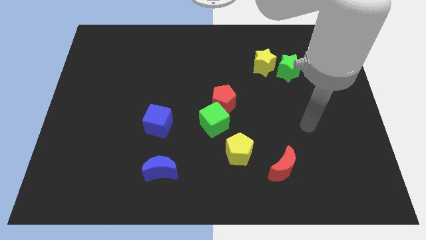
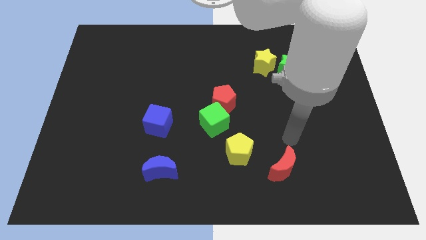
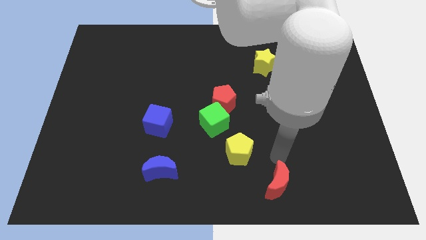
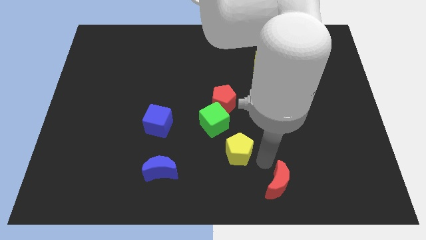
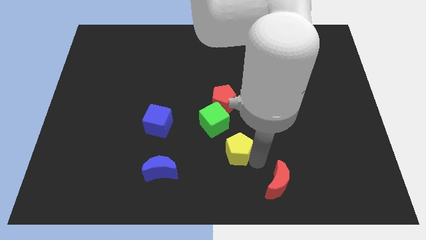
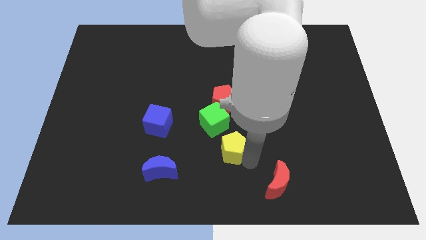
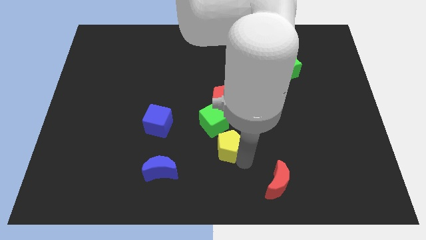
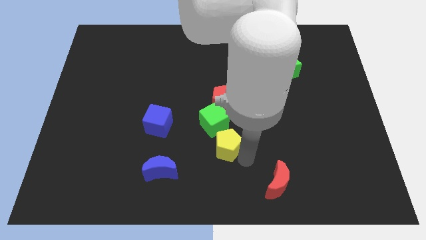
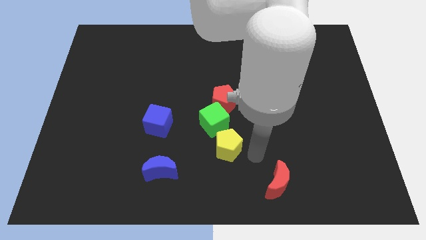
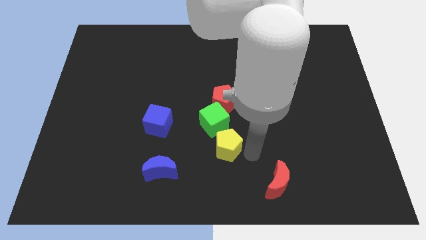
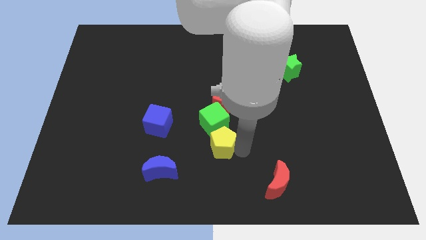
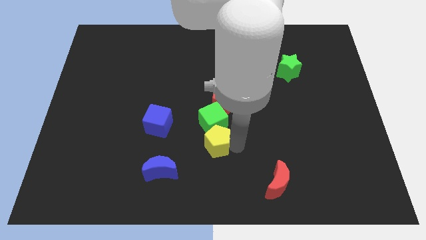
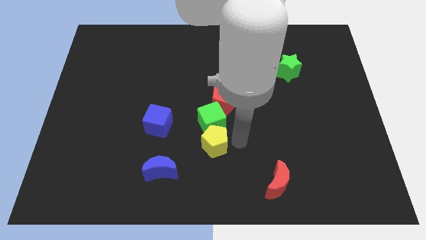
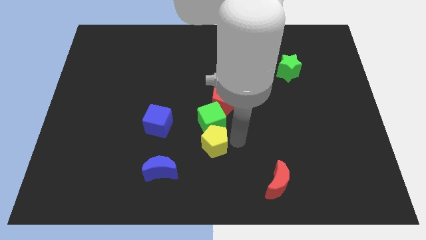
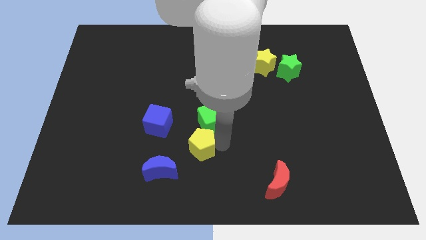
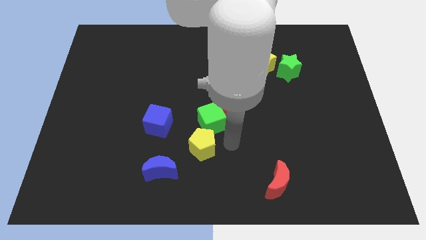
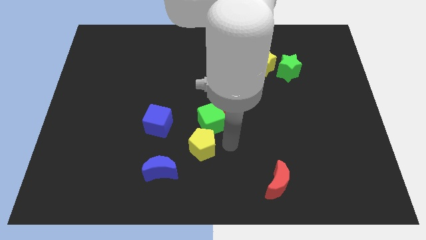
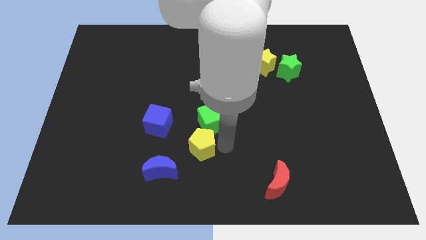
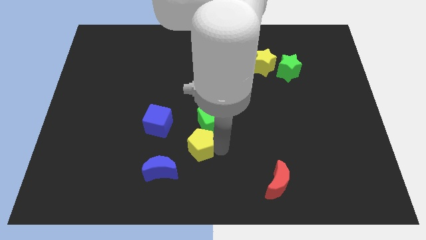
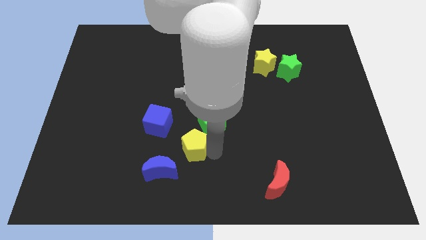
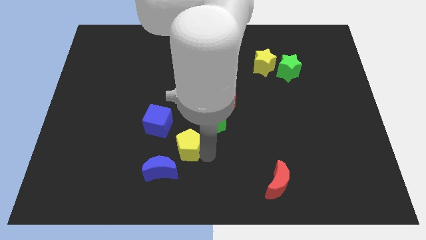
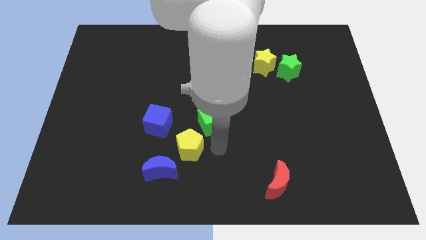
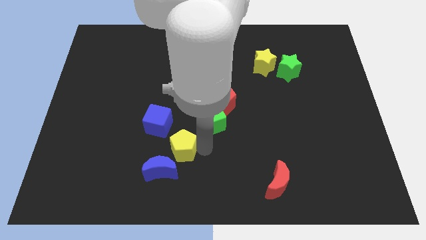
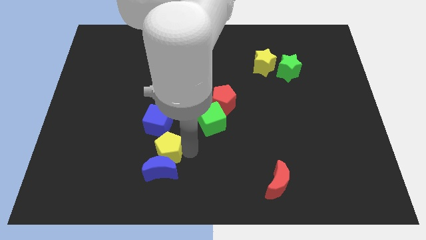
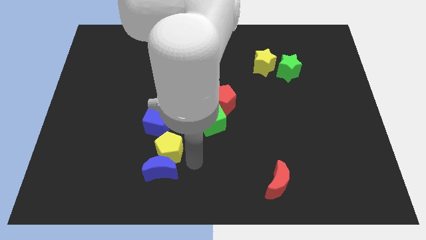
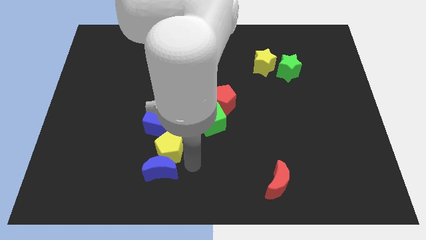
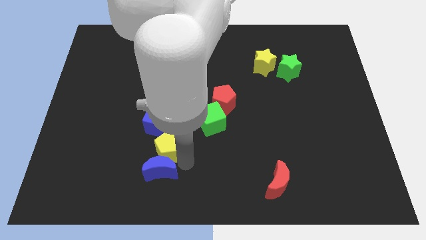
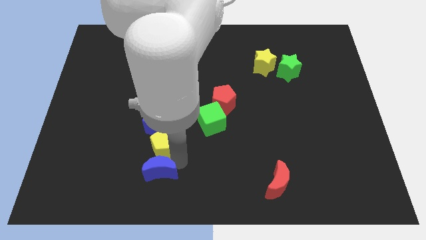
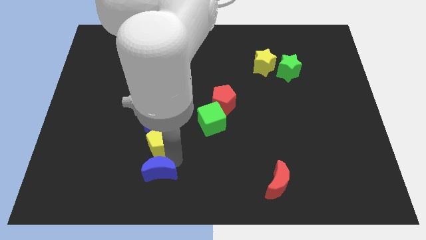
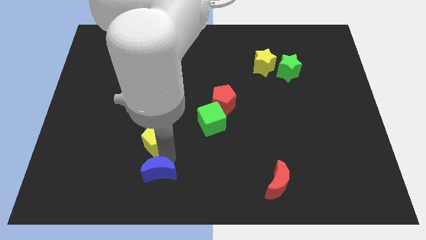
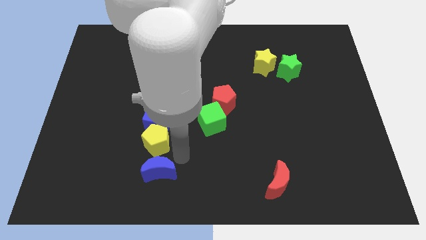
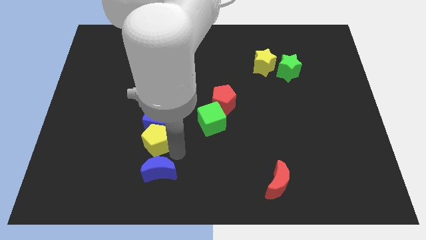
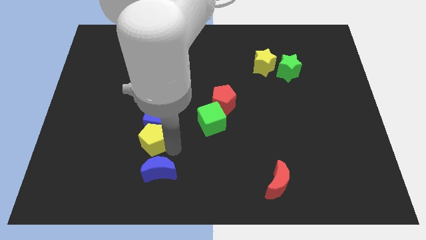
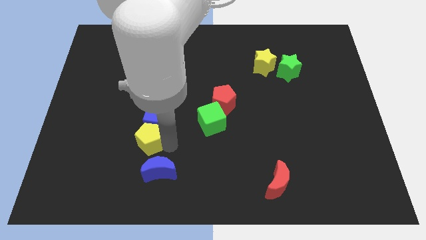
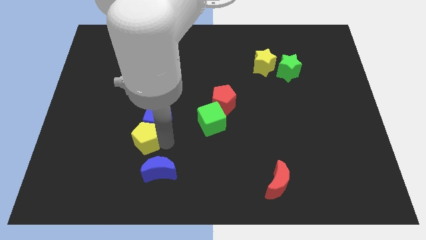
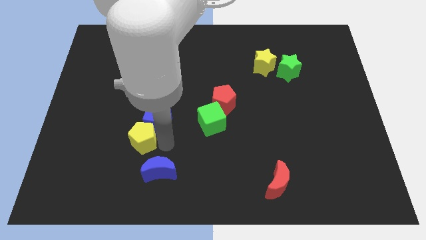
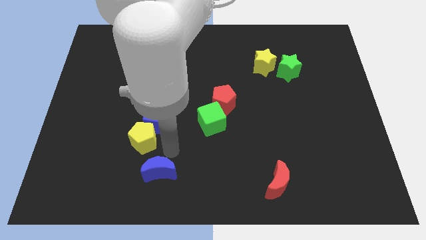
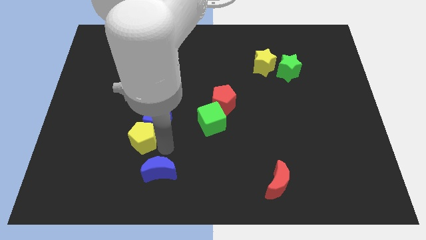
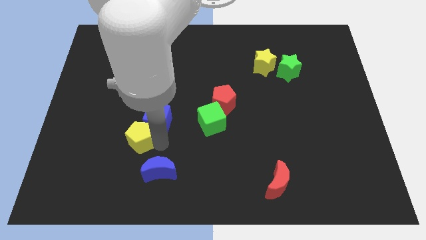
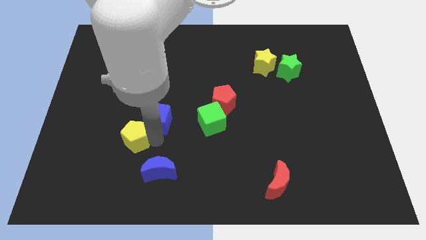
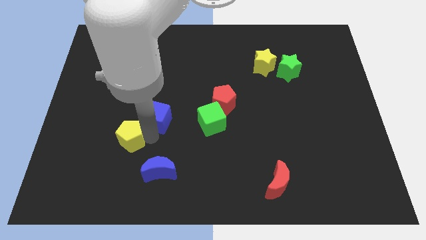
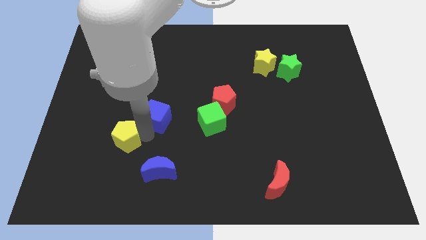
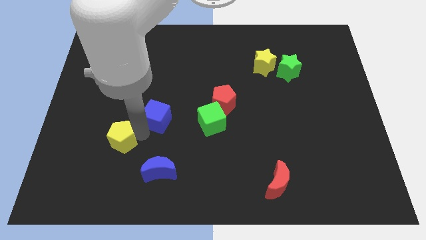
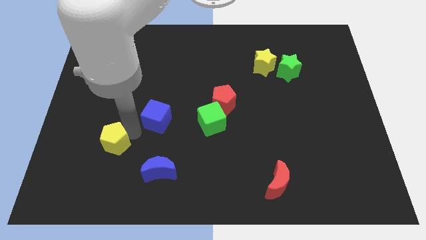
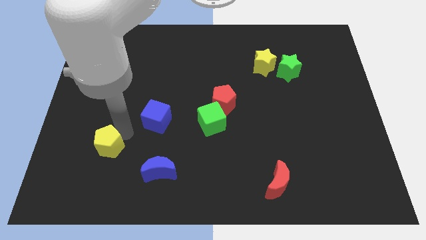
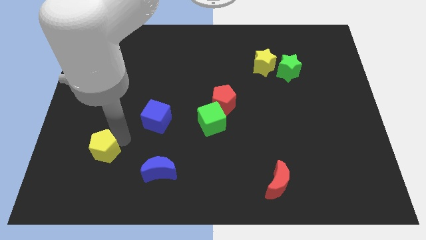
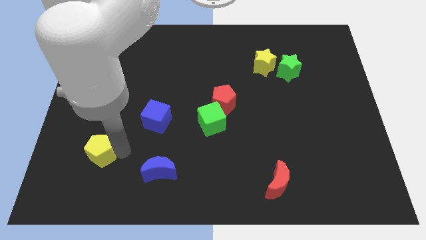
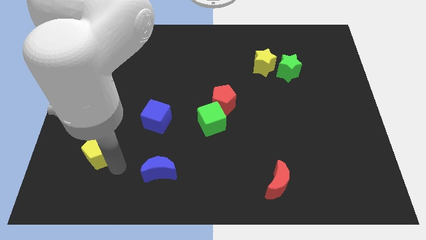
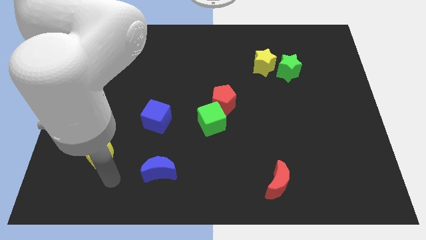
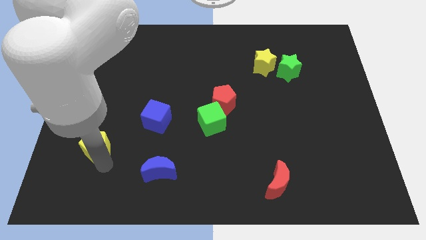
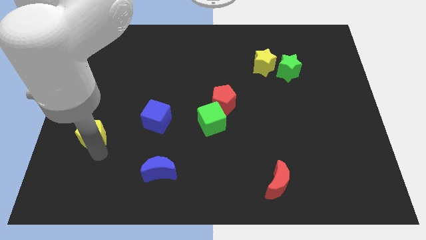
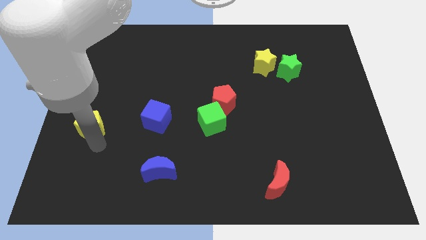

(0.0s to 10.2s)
put the yellow pentagon to the center left

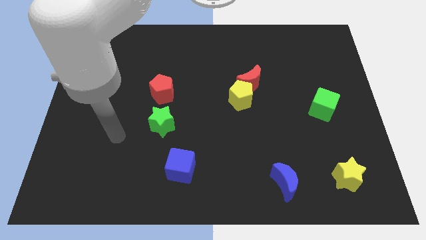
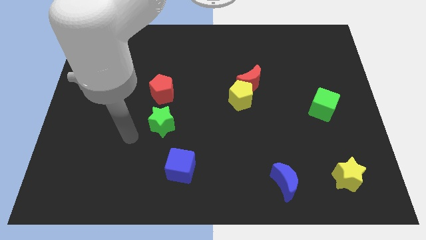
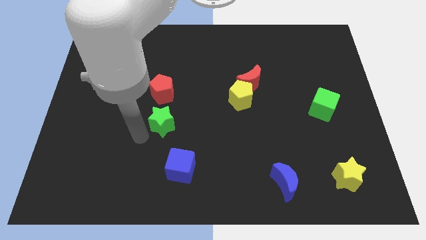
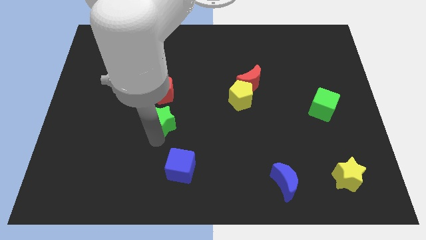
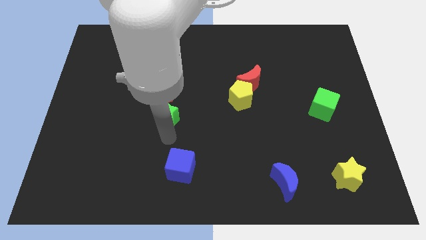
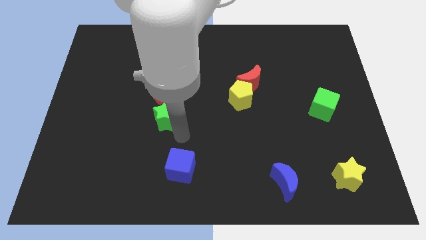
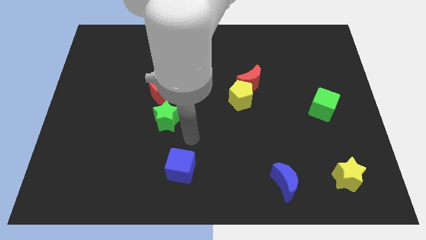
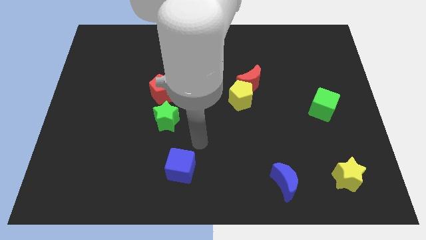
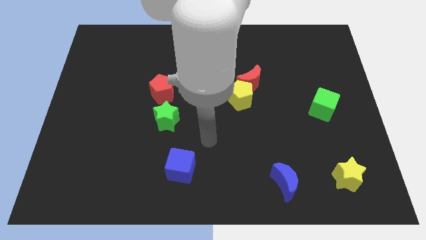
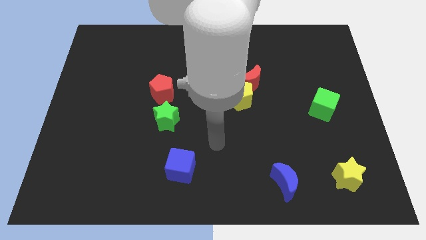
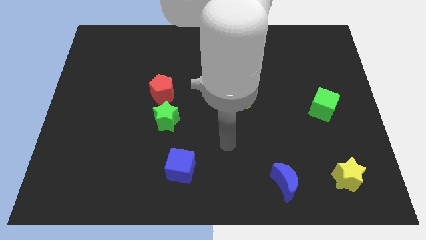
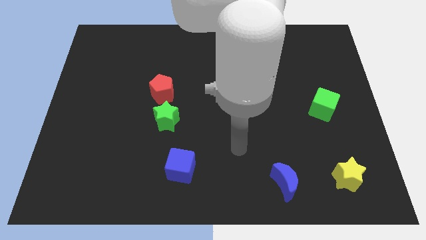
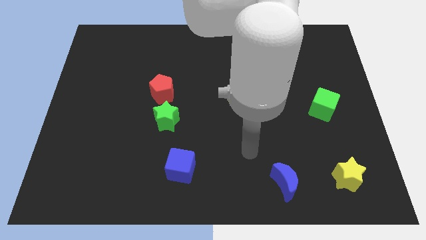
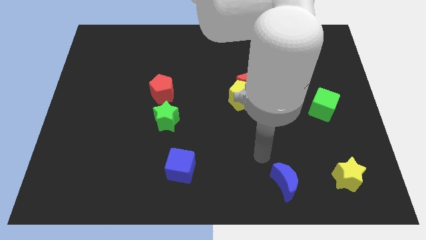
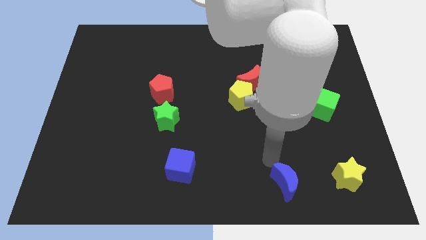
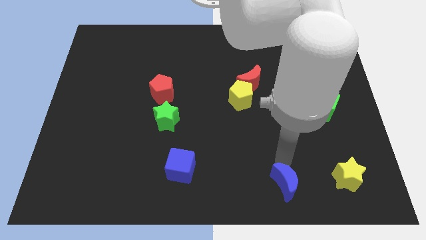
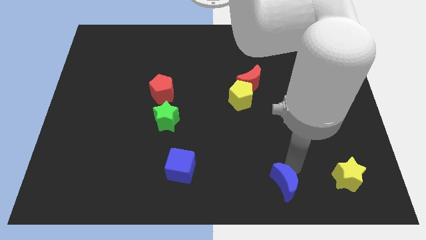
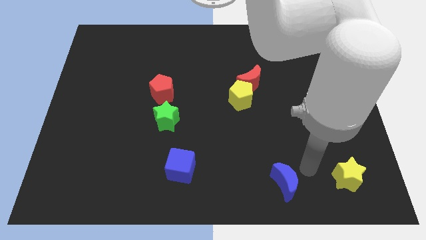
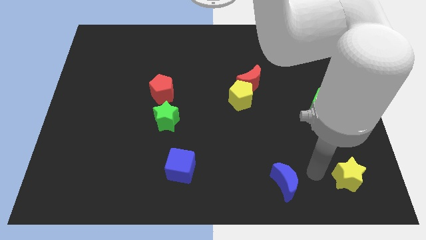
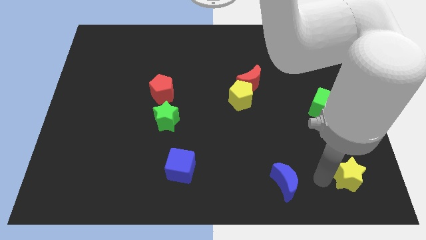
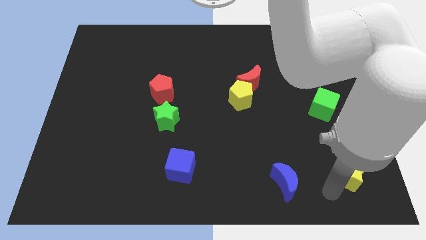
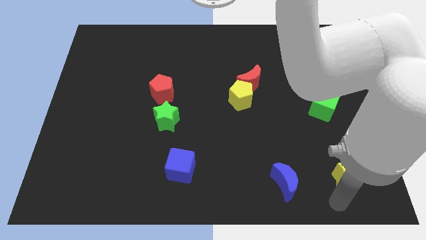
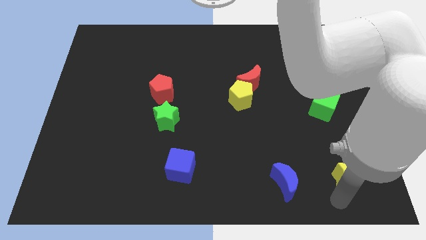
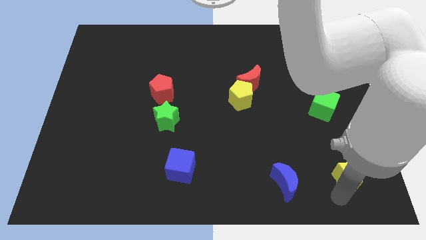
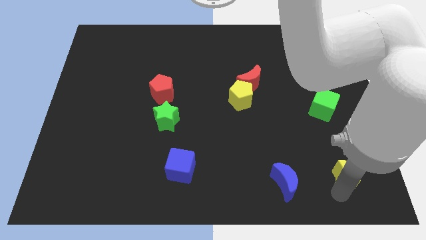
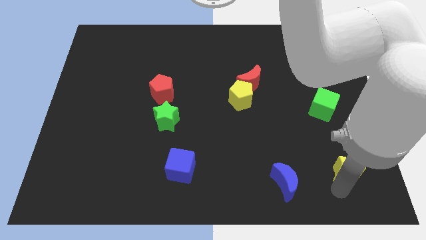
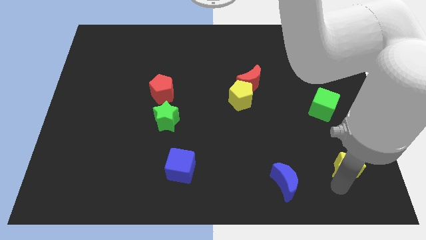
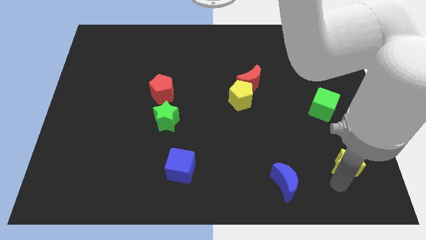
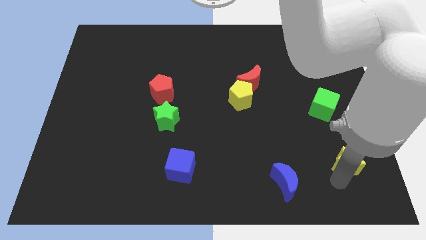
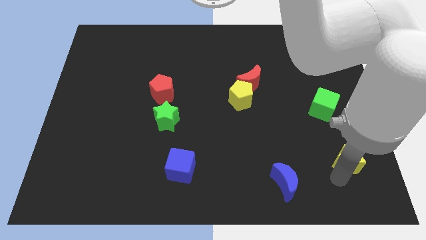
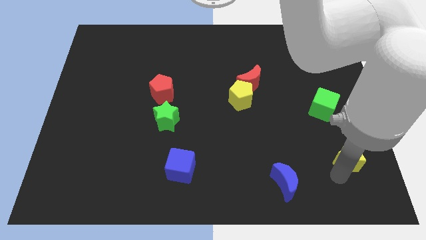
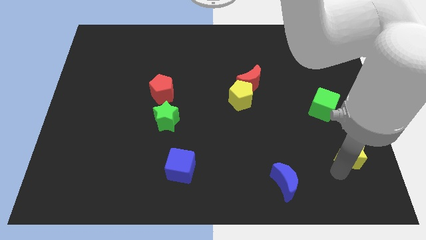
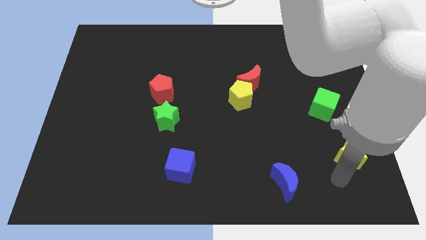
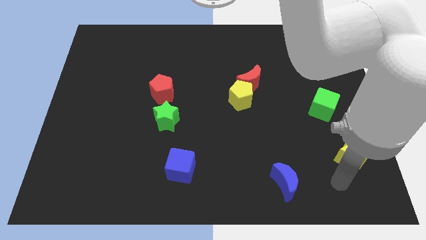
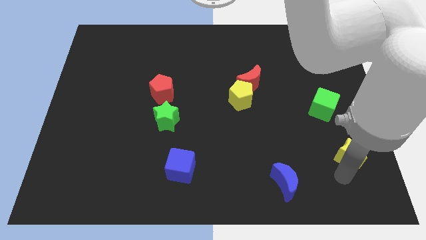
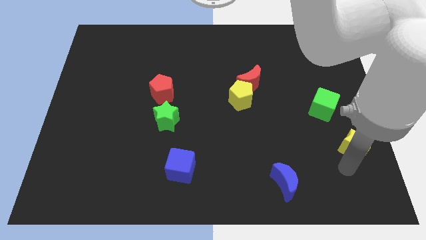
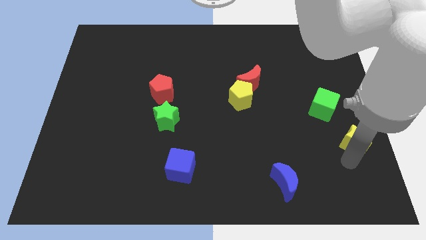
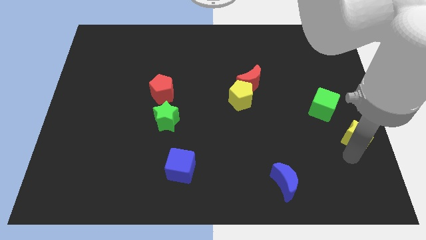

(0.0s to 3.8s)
slide the yellow star to the right side
